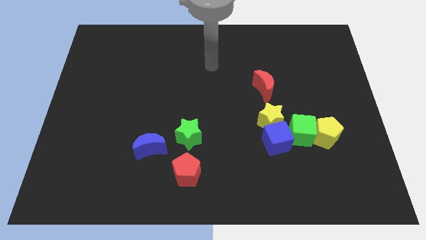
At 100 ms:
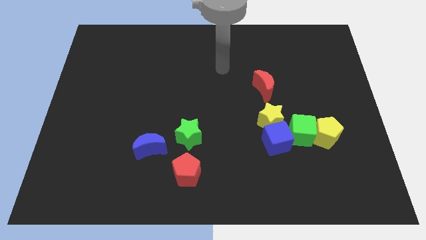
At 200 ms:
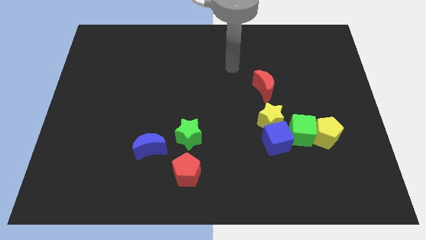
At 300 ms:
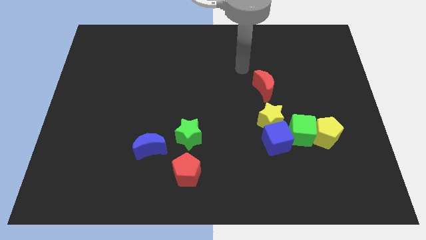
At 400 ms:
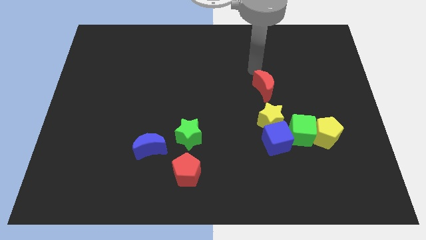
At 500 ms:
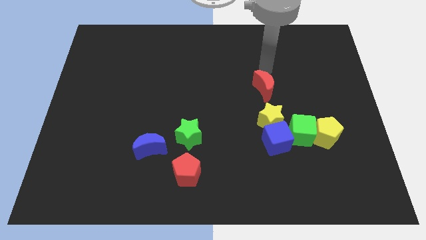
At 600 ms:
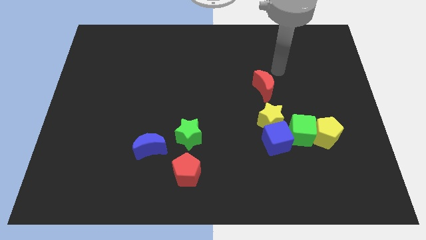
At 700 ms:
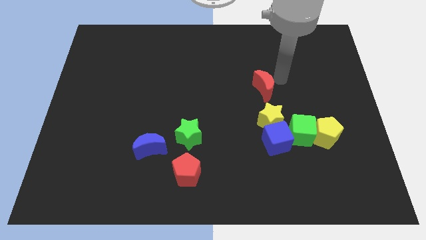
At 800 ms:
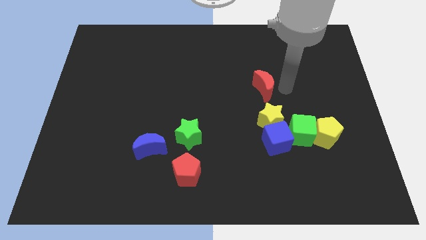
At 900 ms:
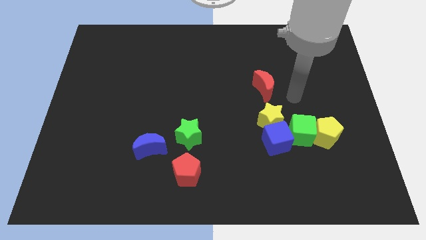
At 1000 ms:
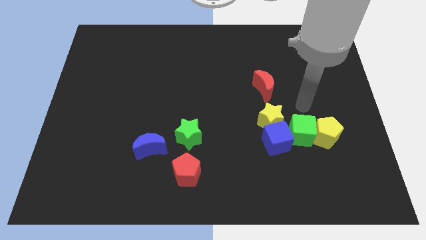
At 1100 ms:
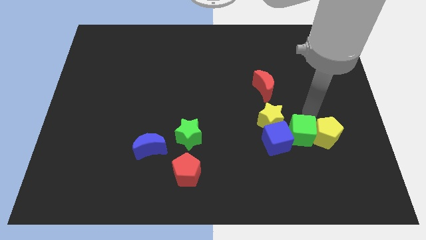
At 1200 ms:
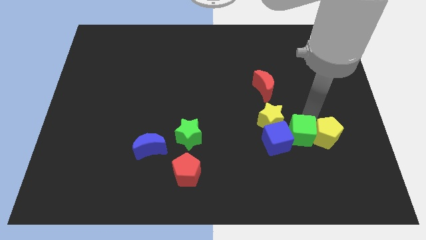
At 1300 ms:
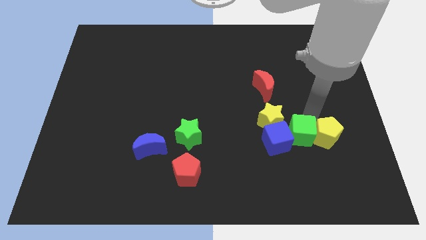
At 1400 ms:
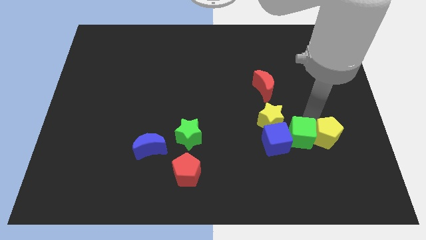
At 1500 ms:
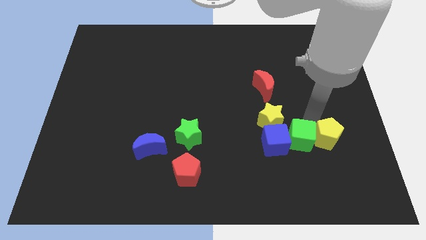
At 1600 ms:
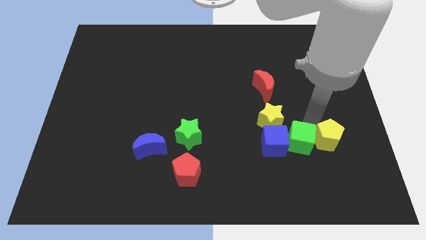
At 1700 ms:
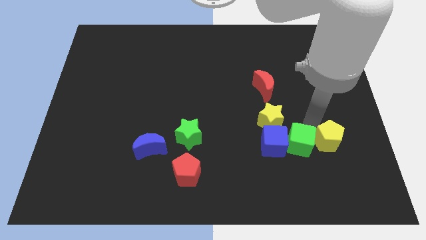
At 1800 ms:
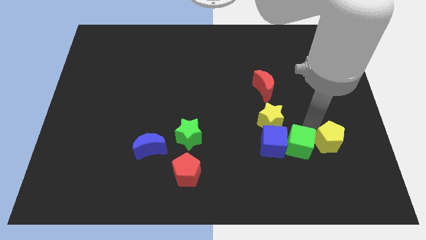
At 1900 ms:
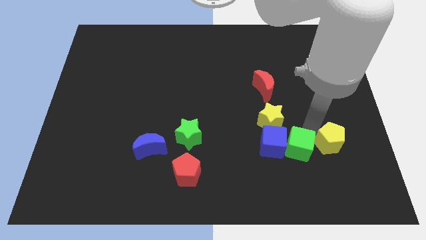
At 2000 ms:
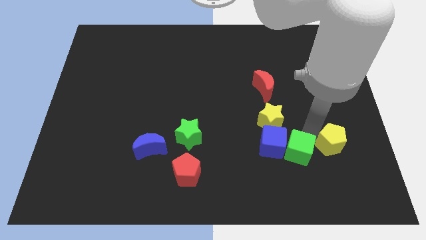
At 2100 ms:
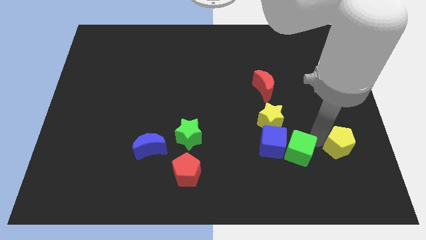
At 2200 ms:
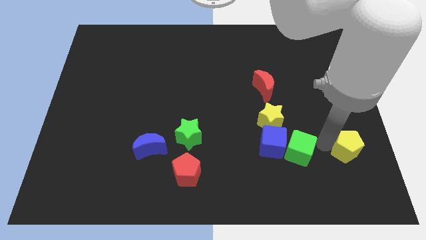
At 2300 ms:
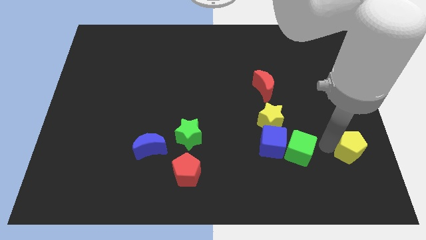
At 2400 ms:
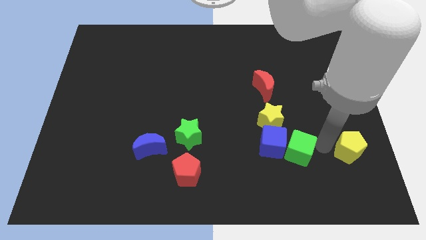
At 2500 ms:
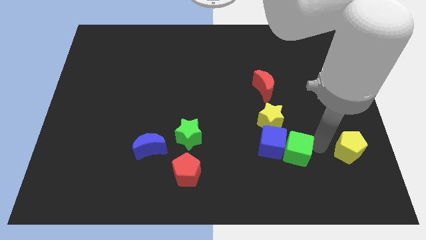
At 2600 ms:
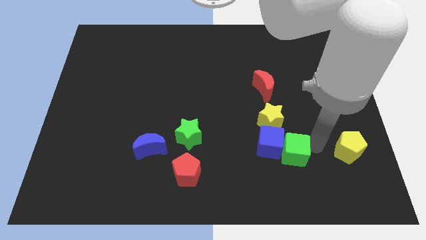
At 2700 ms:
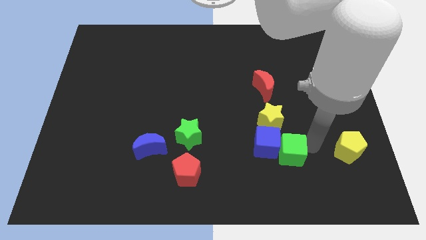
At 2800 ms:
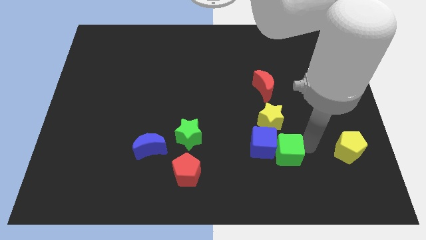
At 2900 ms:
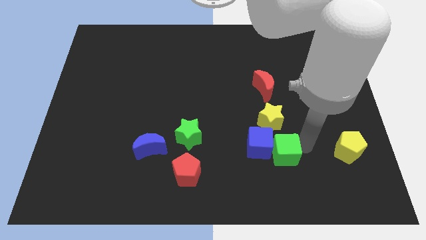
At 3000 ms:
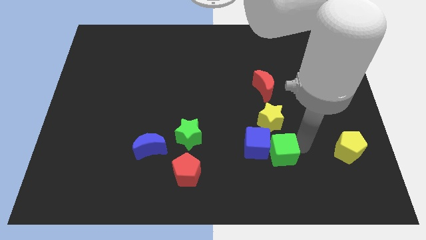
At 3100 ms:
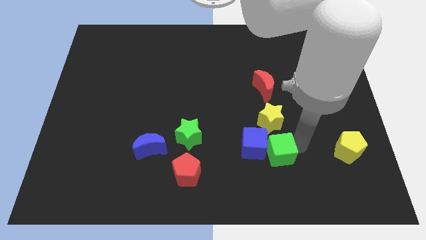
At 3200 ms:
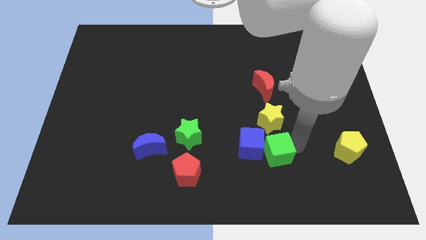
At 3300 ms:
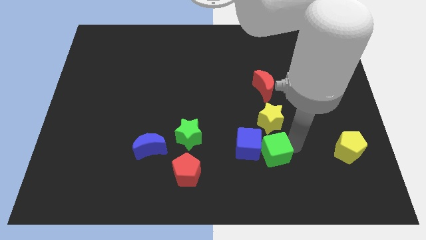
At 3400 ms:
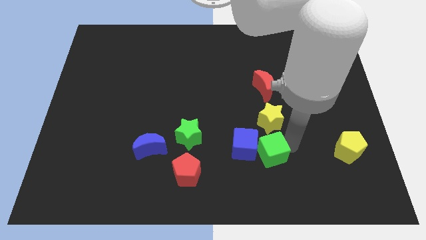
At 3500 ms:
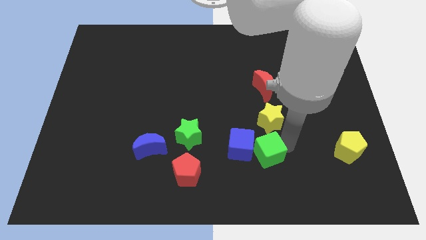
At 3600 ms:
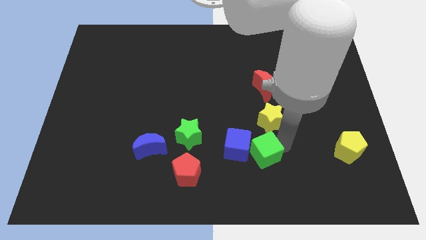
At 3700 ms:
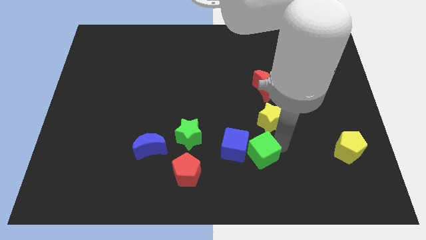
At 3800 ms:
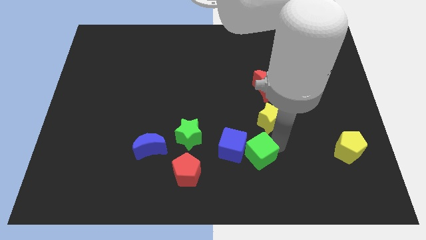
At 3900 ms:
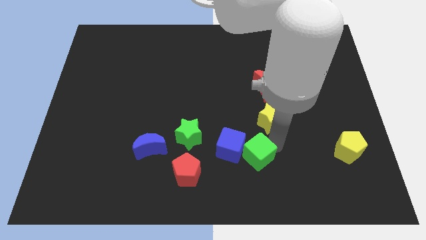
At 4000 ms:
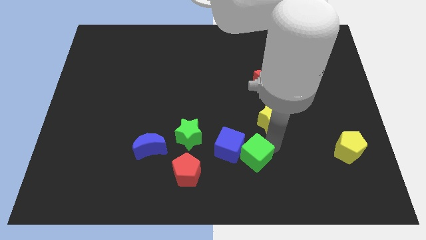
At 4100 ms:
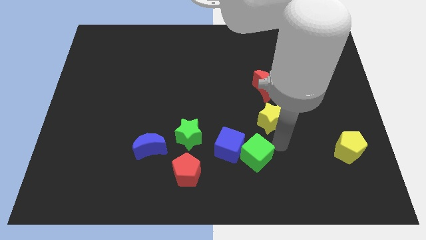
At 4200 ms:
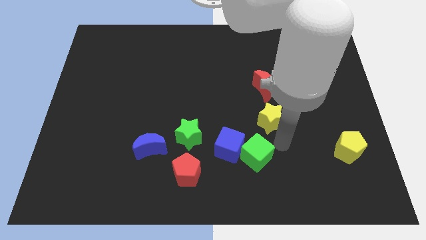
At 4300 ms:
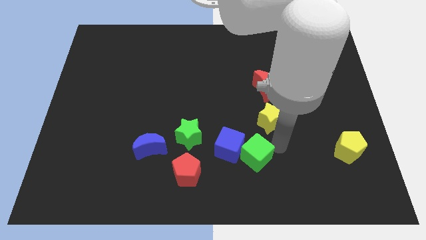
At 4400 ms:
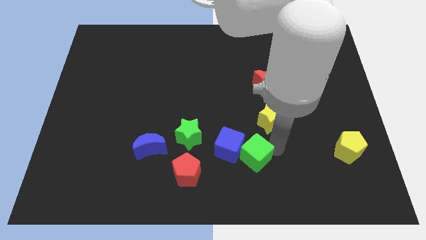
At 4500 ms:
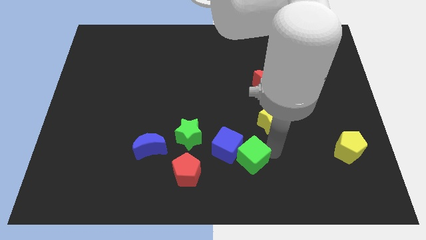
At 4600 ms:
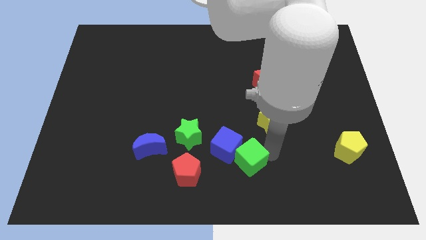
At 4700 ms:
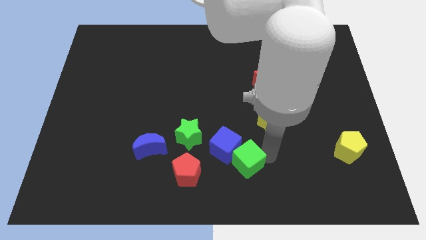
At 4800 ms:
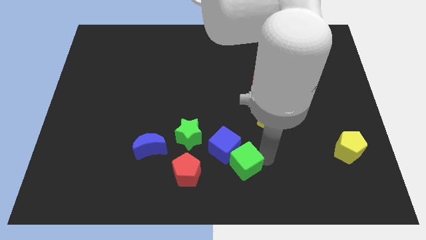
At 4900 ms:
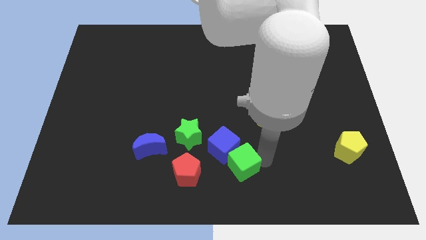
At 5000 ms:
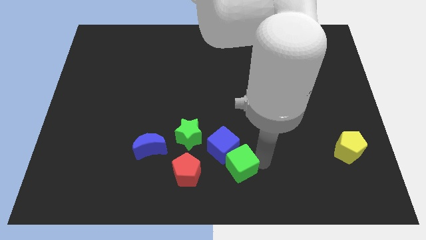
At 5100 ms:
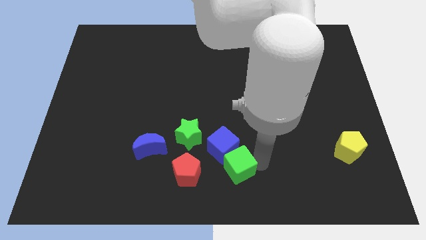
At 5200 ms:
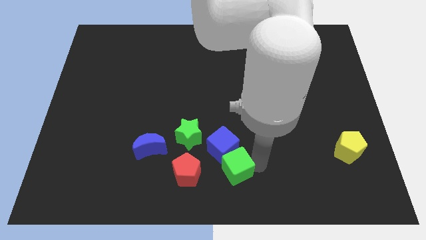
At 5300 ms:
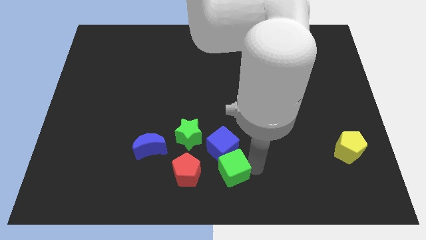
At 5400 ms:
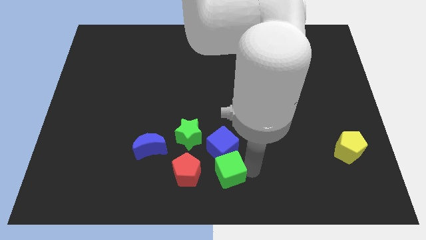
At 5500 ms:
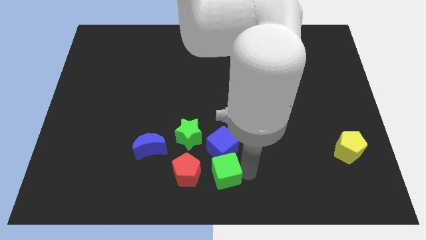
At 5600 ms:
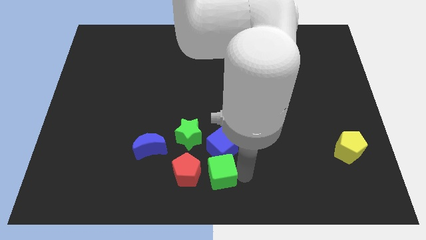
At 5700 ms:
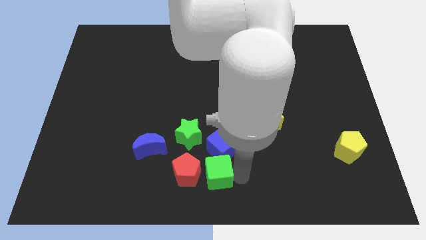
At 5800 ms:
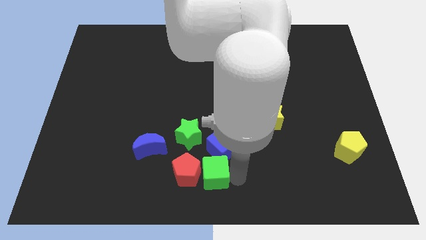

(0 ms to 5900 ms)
push the green cube next to the red pentagon
